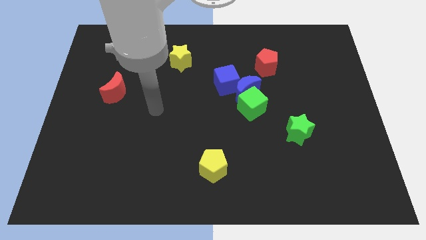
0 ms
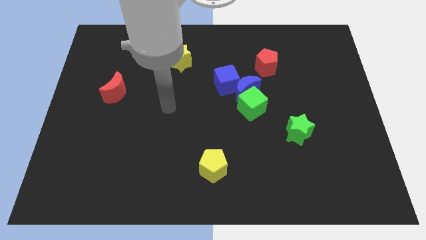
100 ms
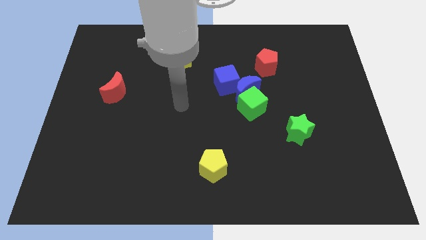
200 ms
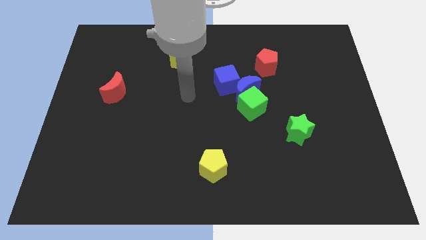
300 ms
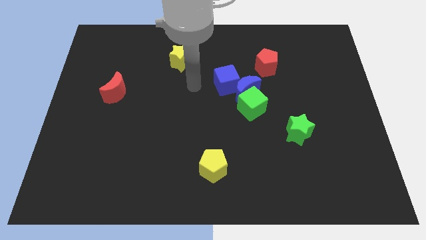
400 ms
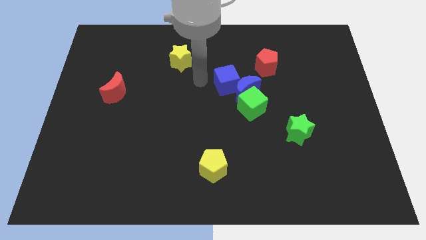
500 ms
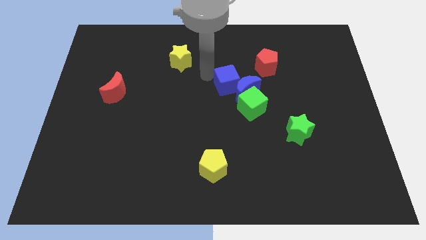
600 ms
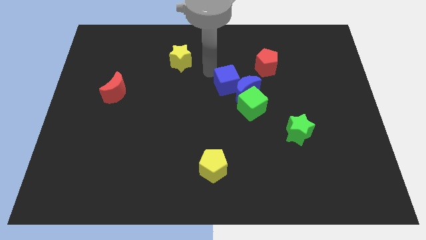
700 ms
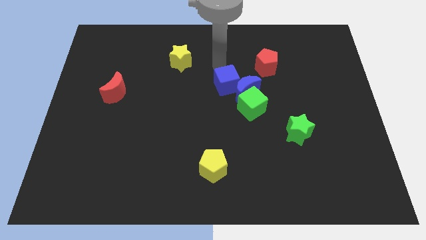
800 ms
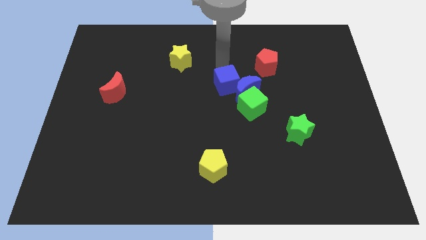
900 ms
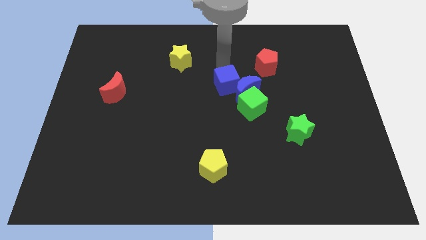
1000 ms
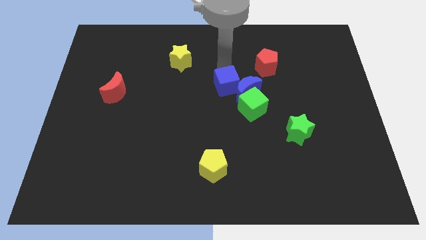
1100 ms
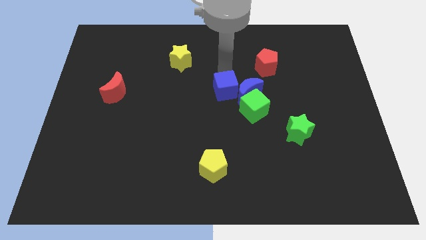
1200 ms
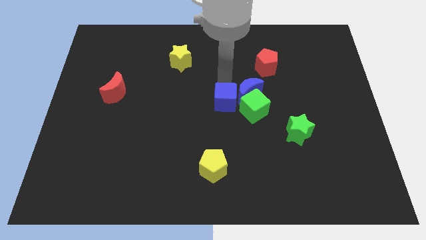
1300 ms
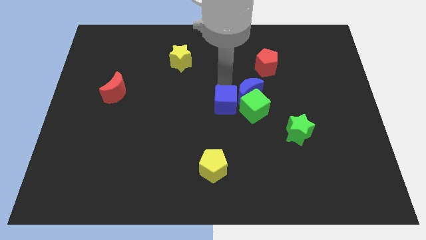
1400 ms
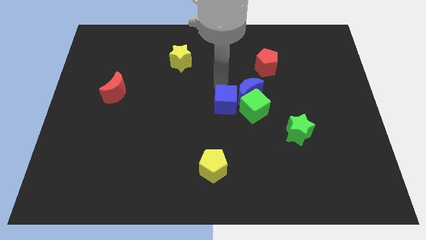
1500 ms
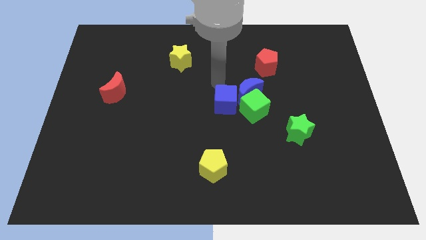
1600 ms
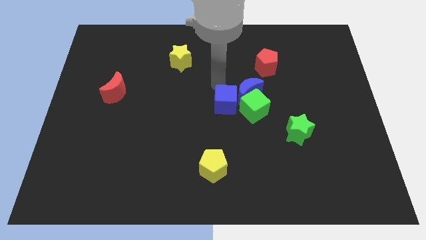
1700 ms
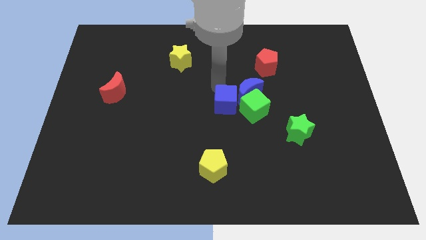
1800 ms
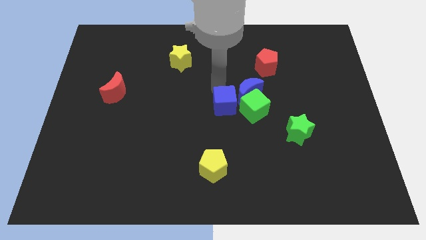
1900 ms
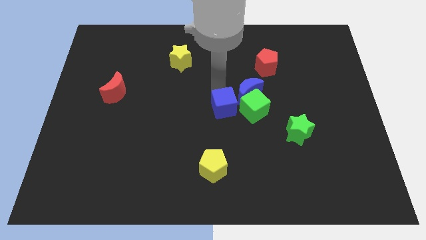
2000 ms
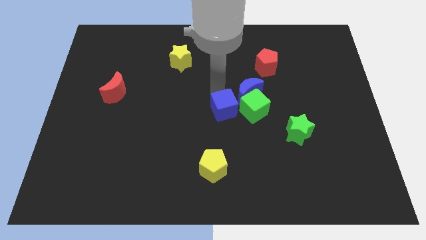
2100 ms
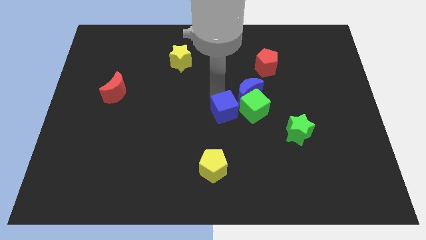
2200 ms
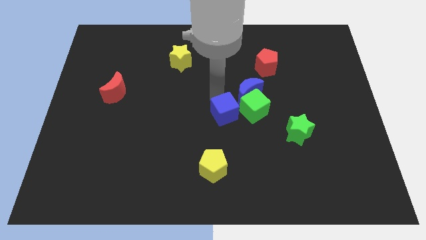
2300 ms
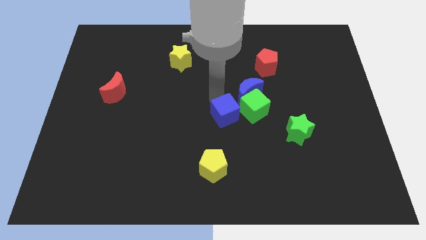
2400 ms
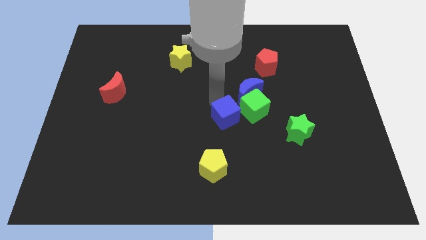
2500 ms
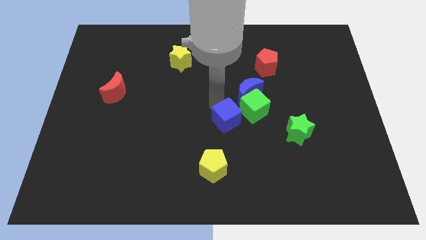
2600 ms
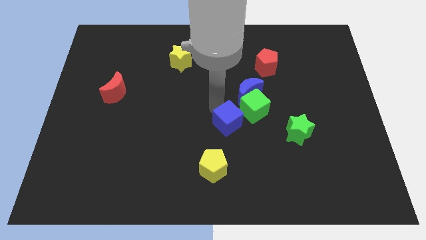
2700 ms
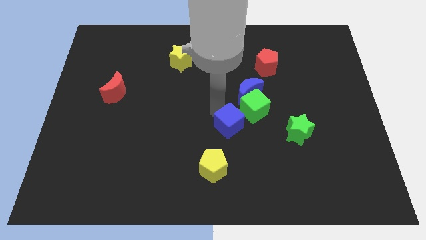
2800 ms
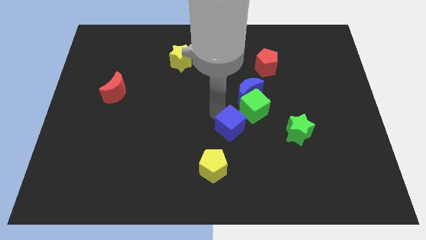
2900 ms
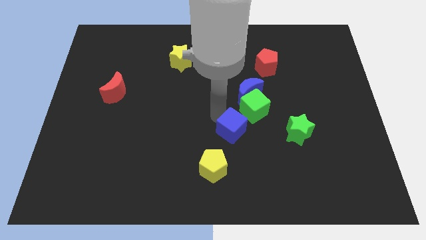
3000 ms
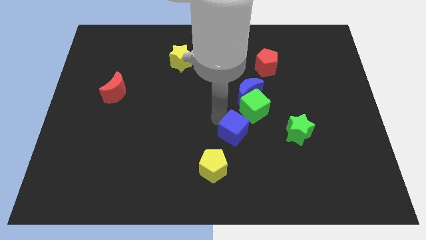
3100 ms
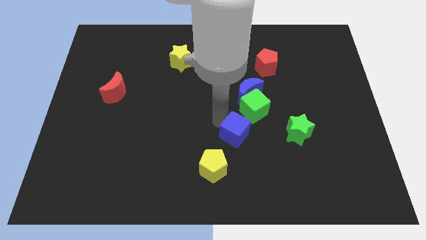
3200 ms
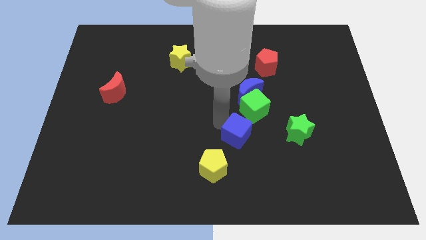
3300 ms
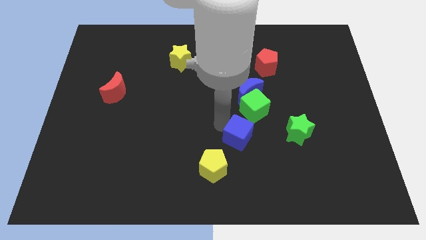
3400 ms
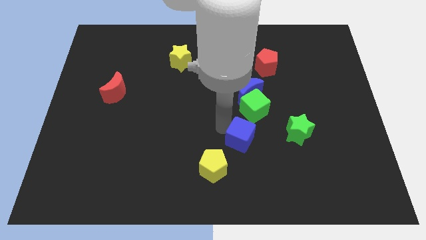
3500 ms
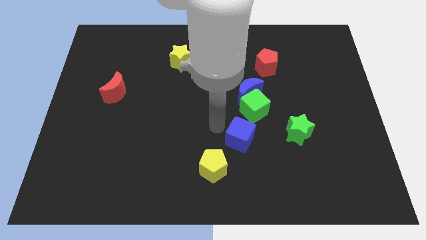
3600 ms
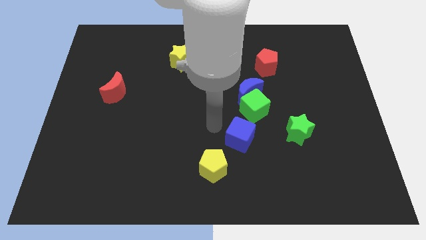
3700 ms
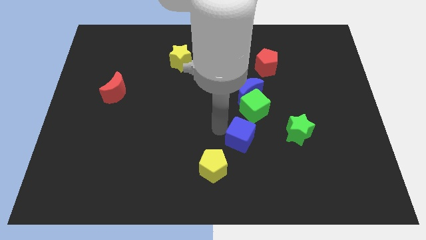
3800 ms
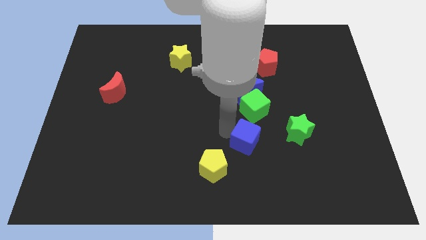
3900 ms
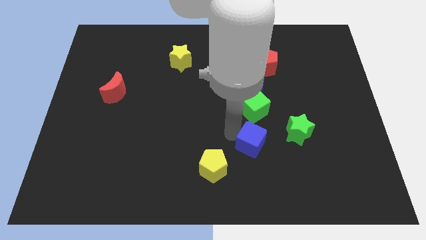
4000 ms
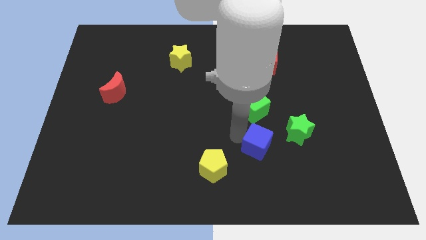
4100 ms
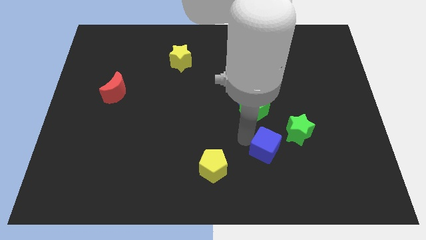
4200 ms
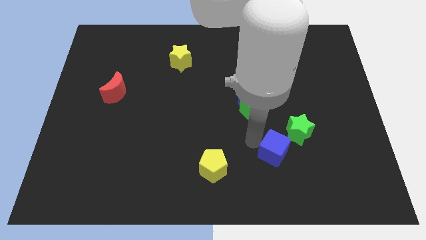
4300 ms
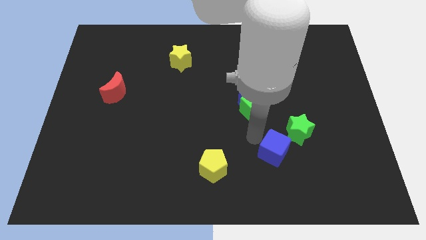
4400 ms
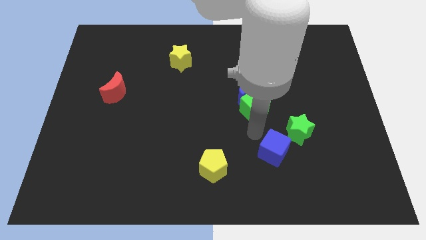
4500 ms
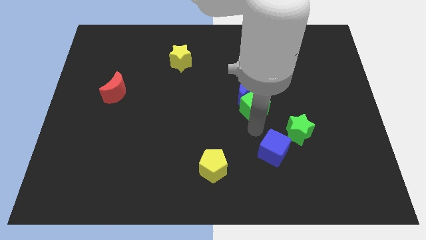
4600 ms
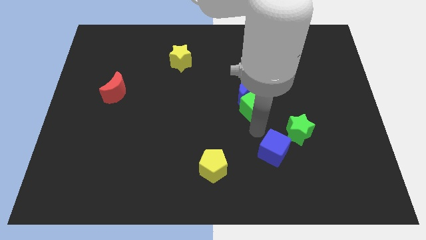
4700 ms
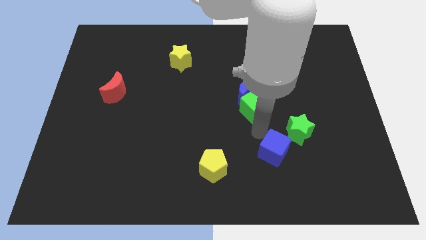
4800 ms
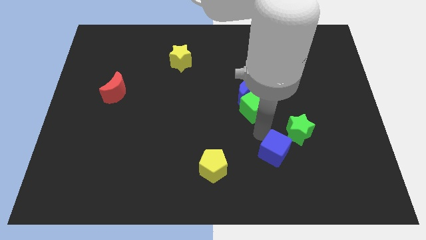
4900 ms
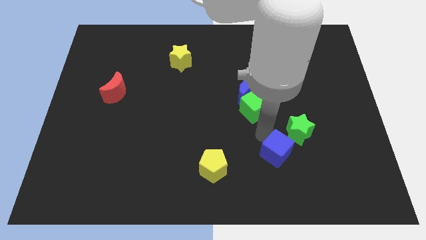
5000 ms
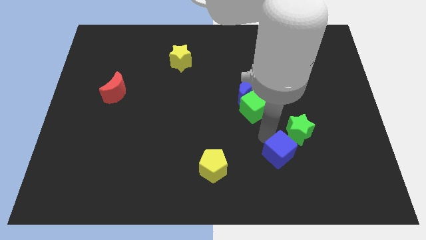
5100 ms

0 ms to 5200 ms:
slide the blue cube downwards and right

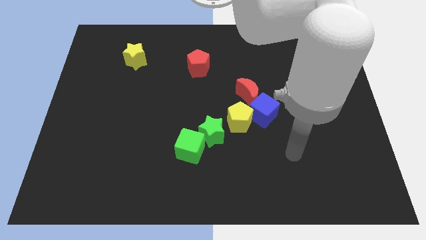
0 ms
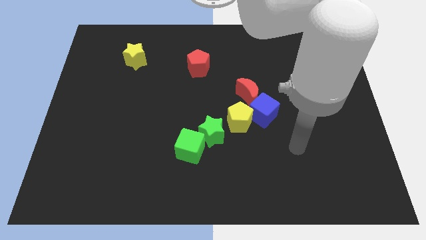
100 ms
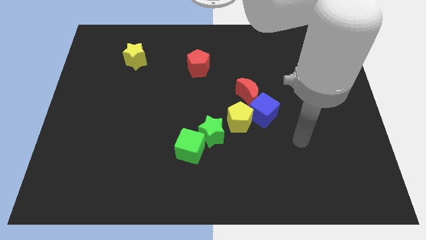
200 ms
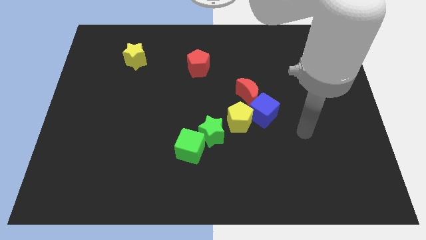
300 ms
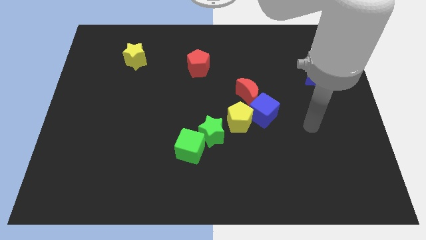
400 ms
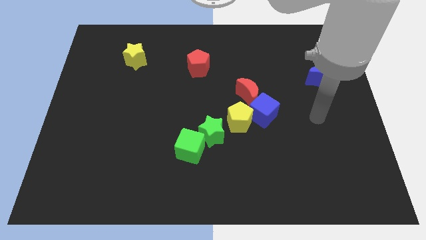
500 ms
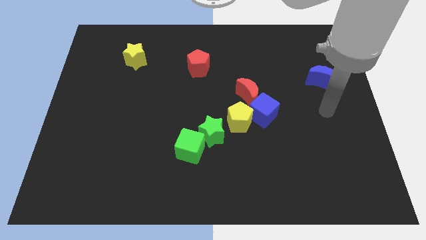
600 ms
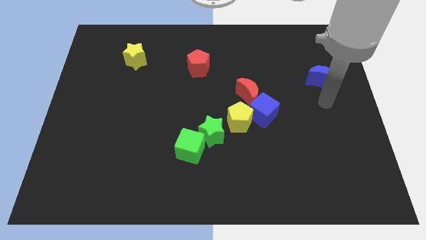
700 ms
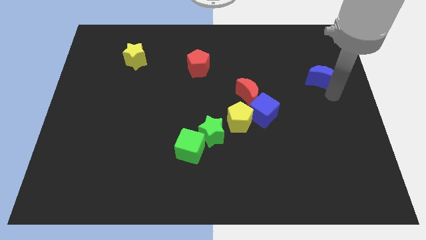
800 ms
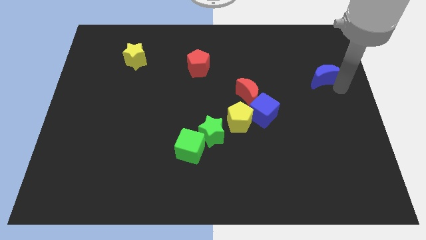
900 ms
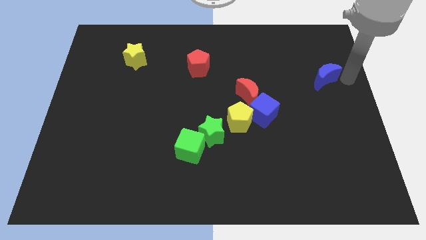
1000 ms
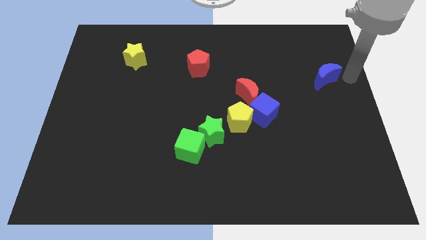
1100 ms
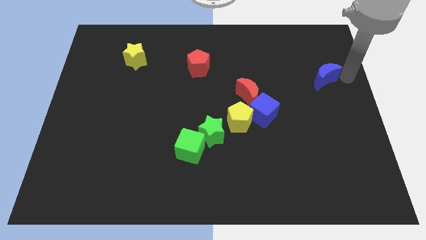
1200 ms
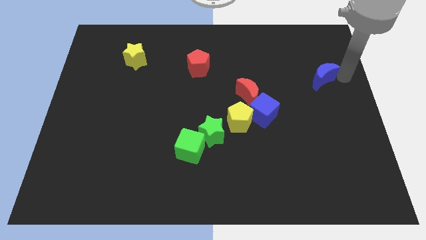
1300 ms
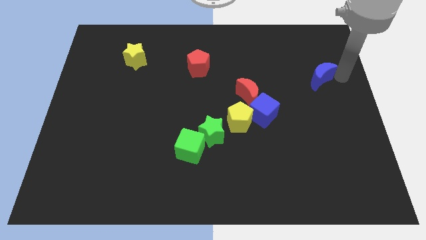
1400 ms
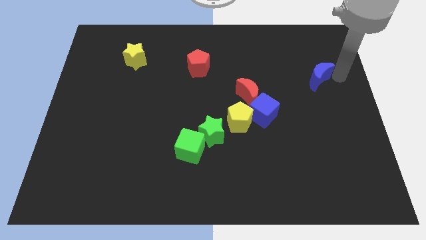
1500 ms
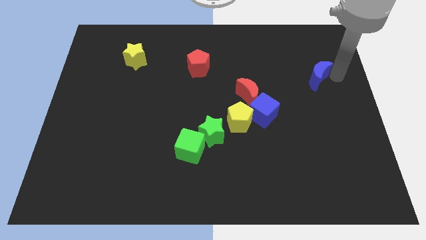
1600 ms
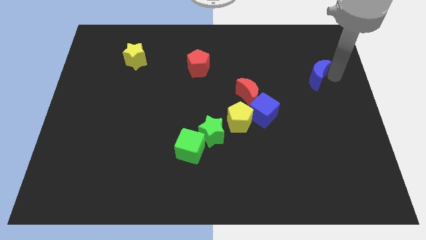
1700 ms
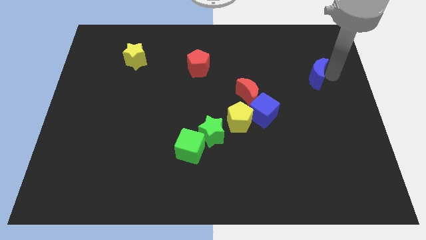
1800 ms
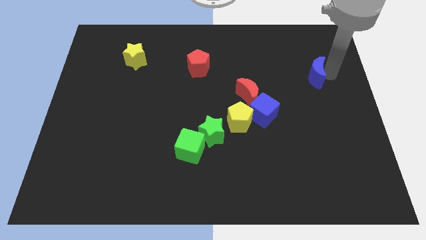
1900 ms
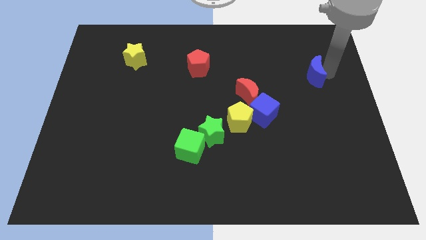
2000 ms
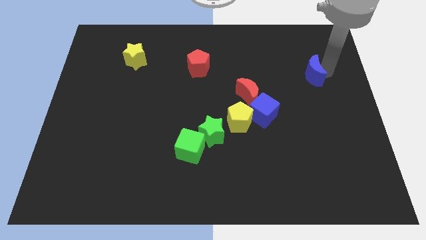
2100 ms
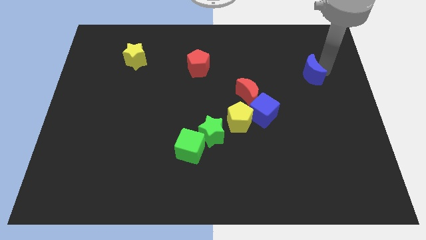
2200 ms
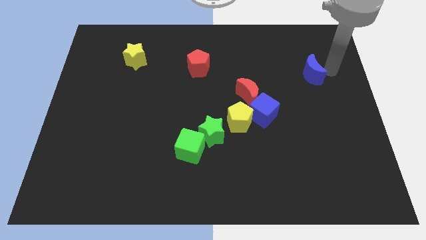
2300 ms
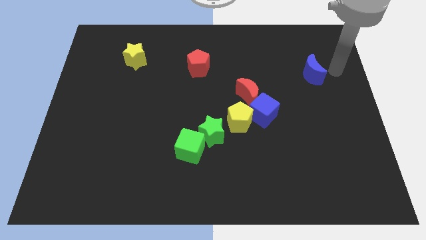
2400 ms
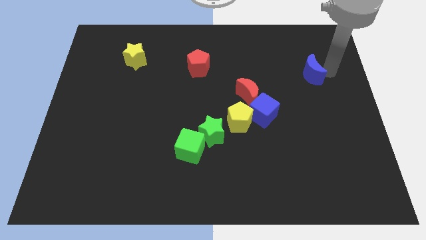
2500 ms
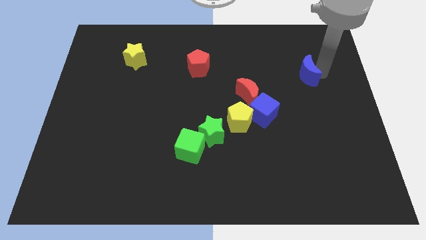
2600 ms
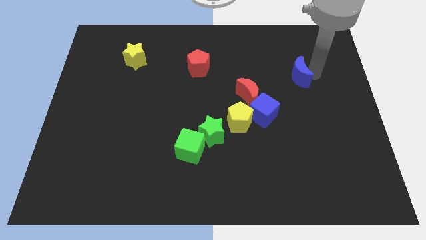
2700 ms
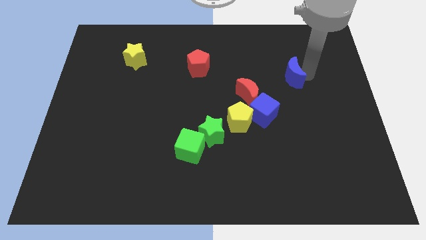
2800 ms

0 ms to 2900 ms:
slightly slide the blue moon left
